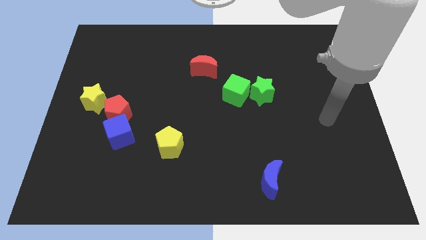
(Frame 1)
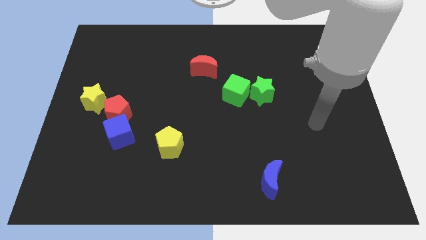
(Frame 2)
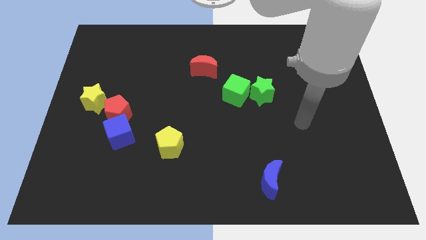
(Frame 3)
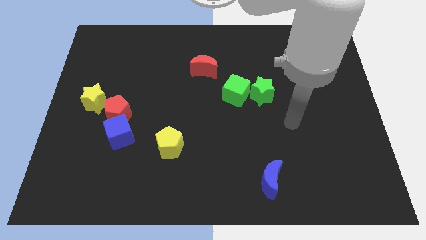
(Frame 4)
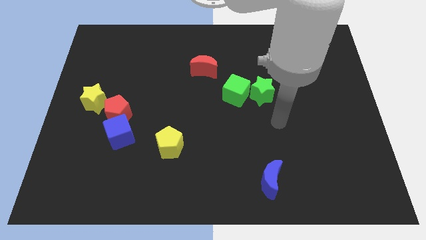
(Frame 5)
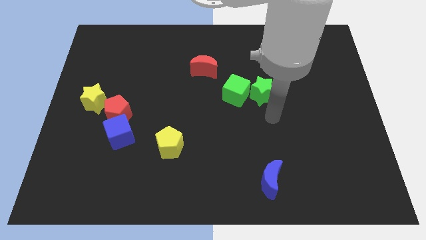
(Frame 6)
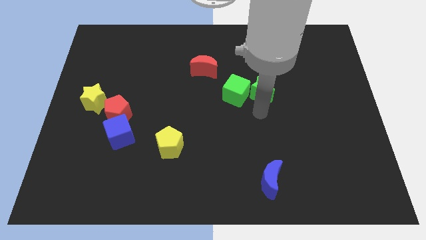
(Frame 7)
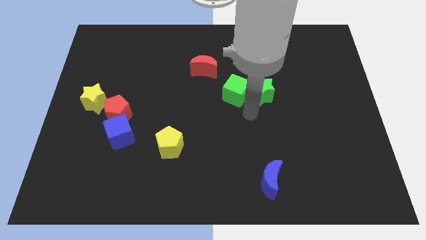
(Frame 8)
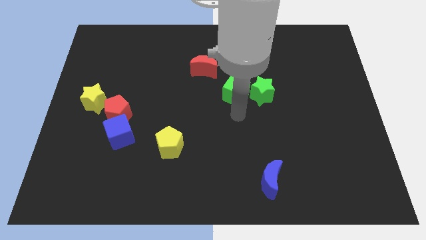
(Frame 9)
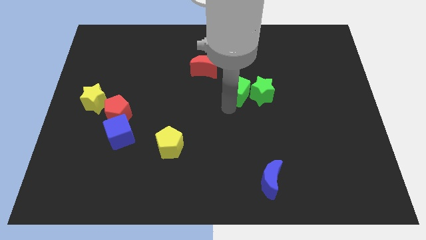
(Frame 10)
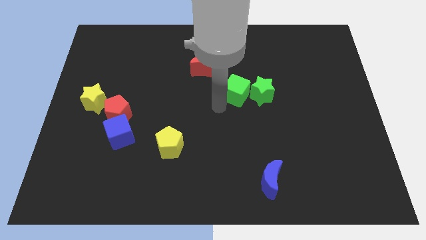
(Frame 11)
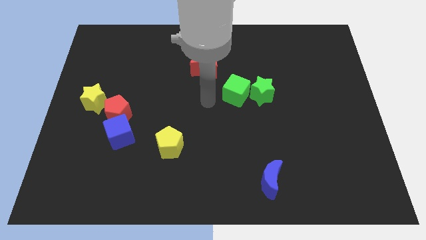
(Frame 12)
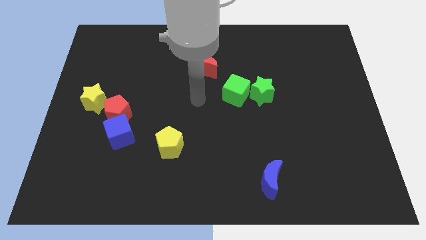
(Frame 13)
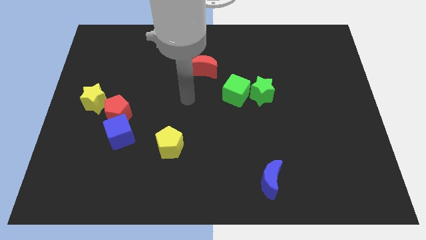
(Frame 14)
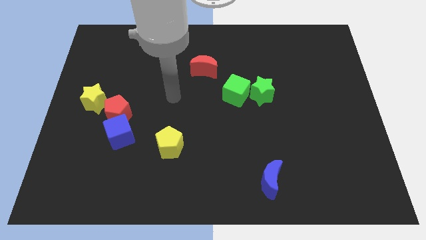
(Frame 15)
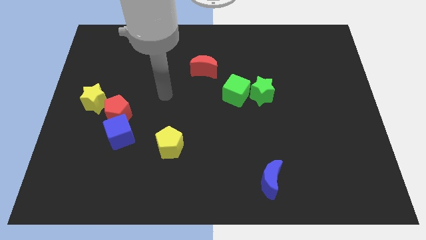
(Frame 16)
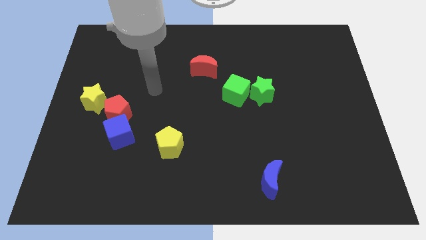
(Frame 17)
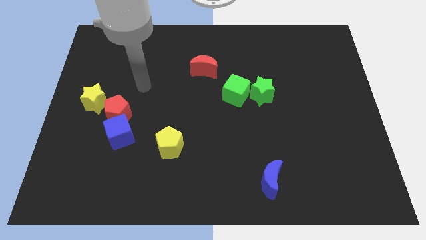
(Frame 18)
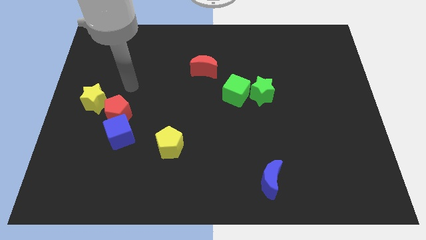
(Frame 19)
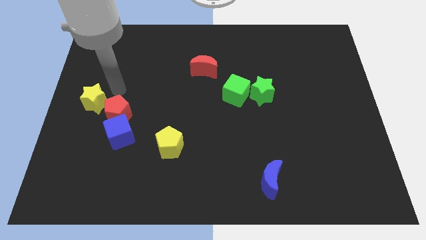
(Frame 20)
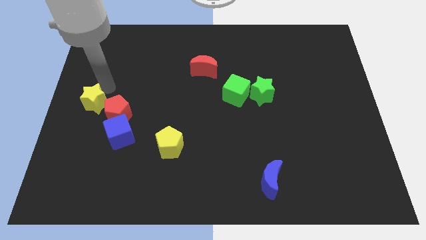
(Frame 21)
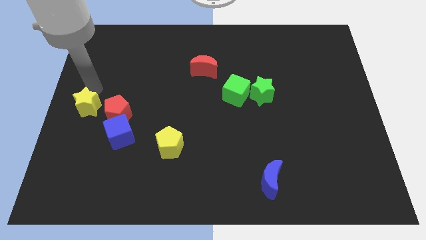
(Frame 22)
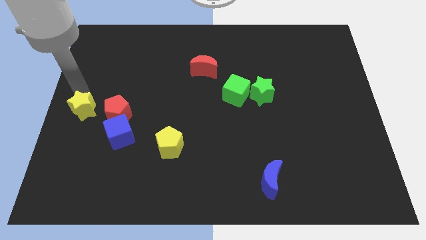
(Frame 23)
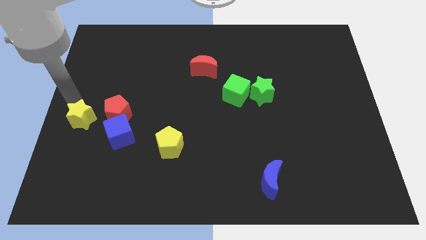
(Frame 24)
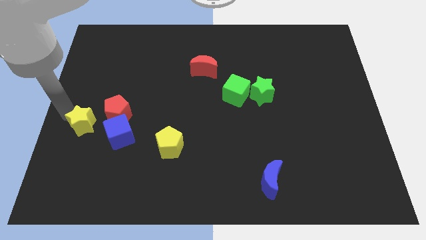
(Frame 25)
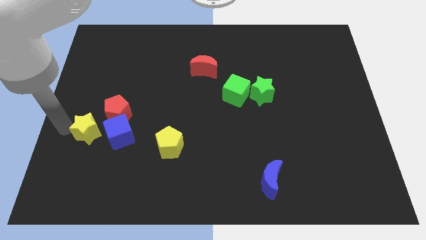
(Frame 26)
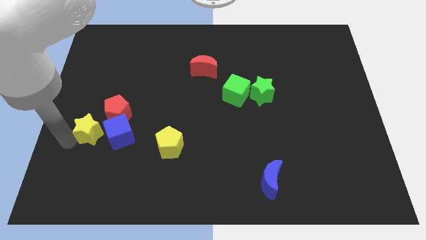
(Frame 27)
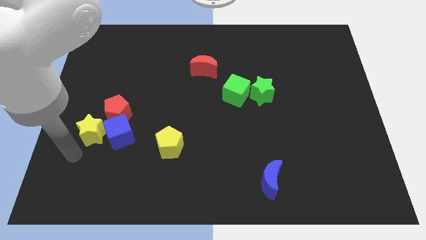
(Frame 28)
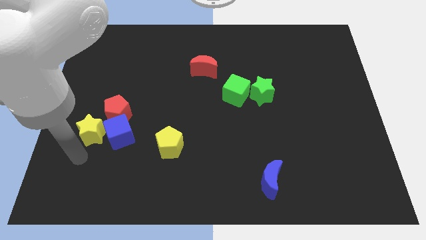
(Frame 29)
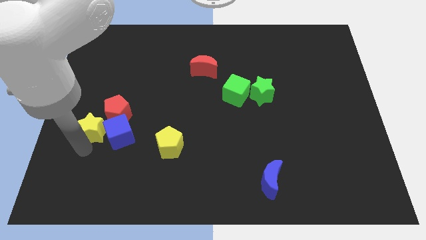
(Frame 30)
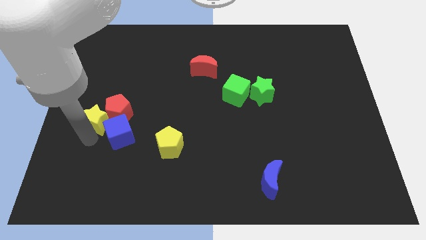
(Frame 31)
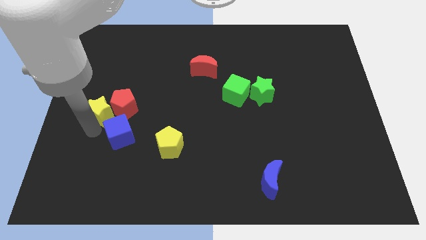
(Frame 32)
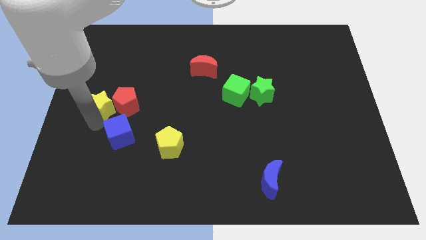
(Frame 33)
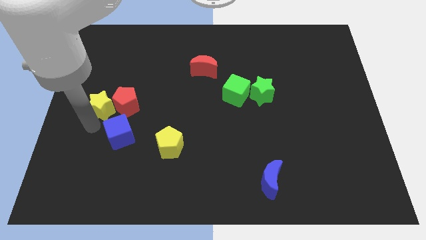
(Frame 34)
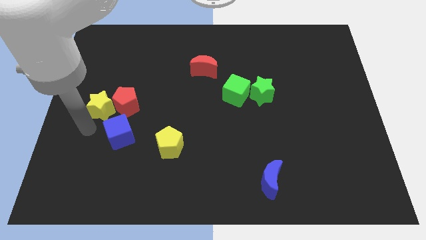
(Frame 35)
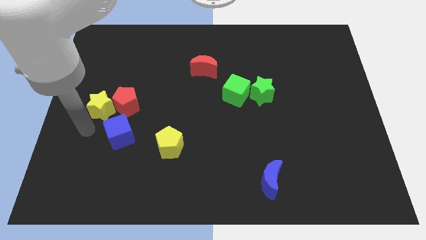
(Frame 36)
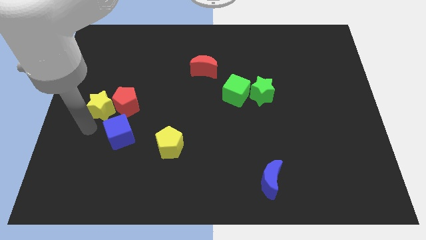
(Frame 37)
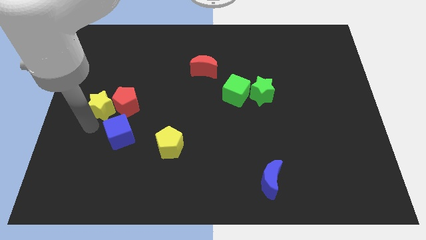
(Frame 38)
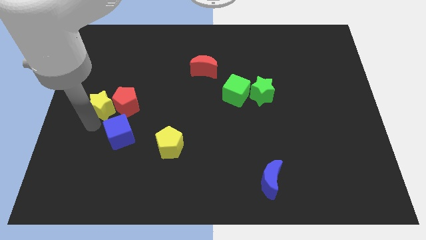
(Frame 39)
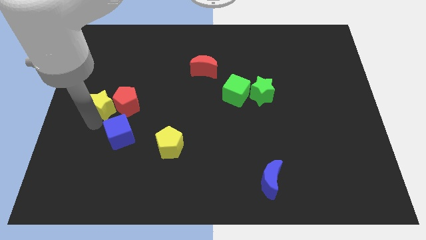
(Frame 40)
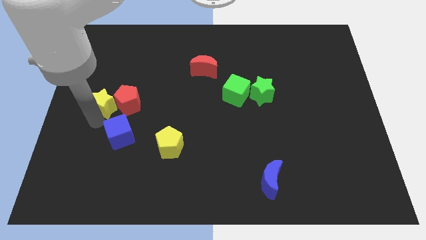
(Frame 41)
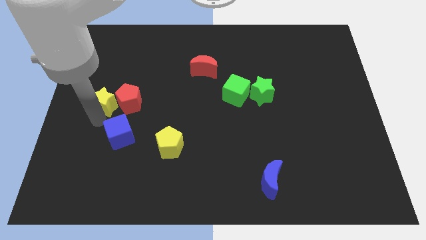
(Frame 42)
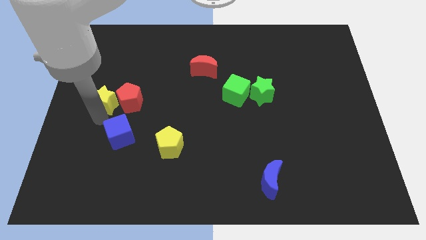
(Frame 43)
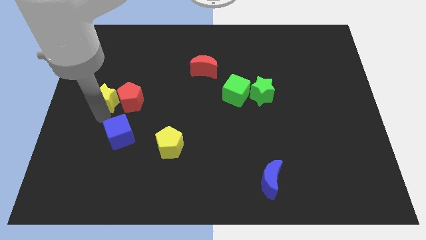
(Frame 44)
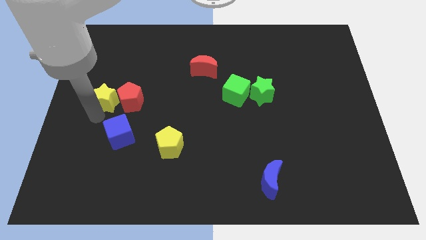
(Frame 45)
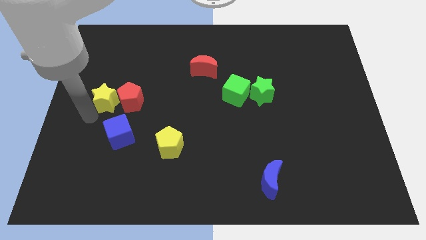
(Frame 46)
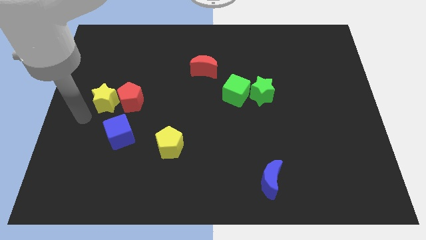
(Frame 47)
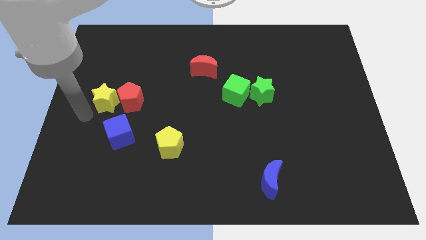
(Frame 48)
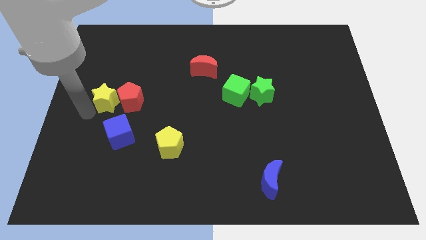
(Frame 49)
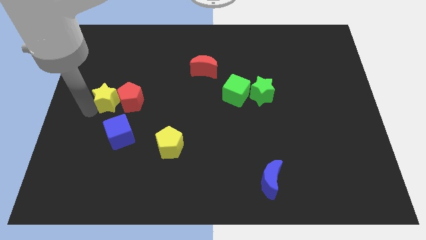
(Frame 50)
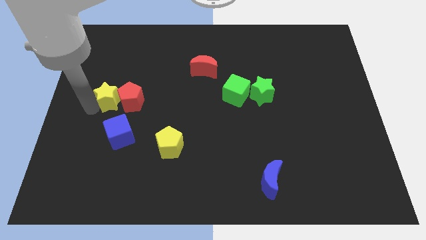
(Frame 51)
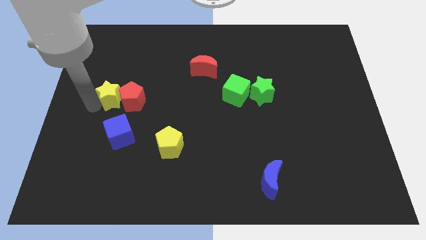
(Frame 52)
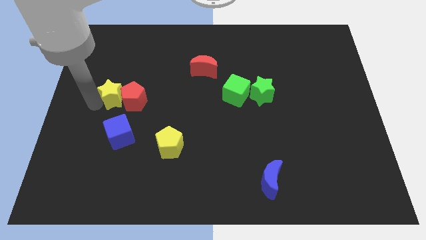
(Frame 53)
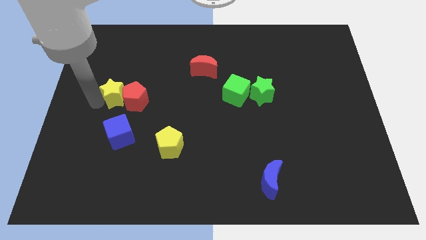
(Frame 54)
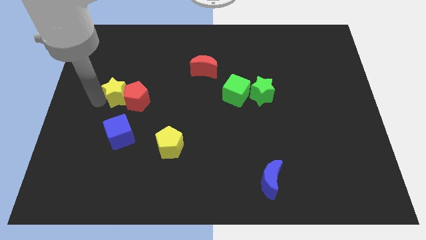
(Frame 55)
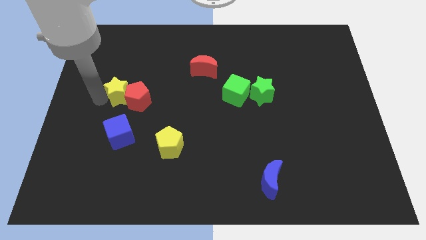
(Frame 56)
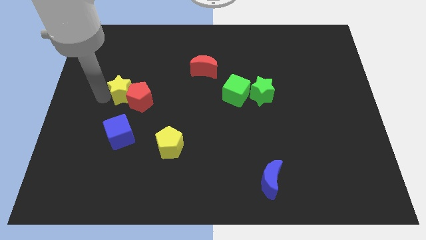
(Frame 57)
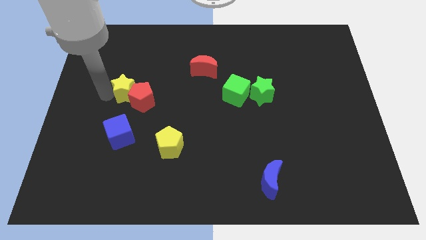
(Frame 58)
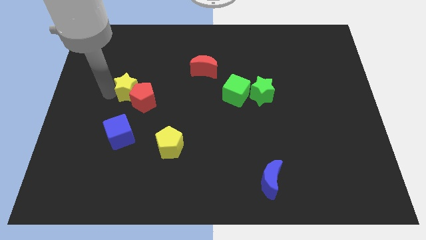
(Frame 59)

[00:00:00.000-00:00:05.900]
slightly push the yellow star upwards and then to the right

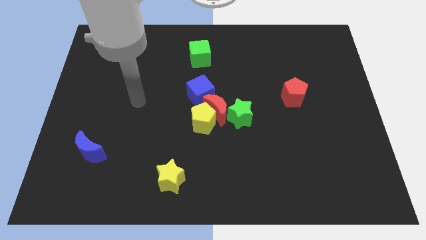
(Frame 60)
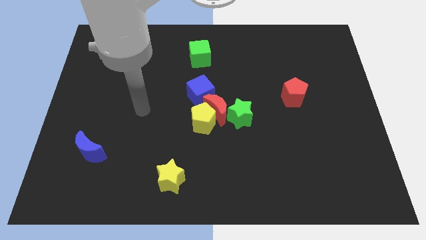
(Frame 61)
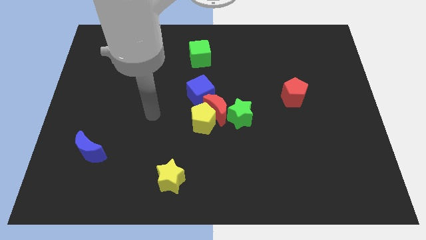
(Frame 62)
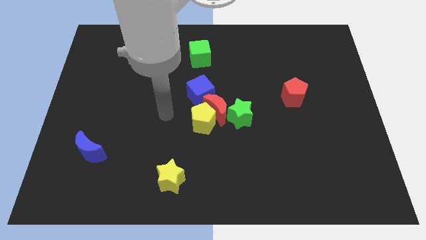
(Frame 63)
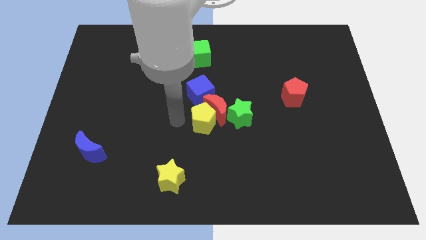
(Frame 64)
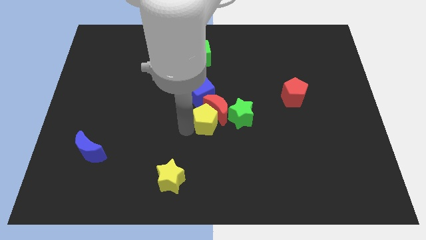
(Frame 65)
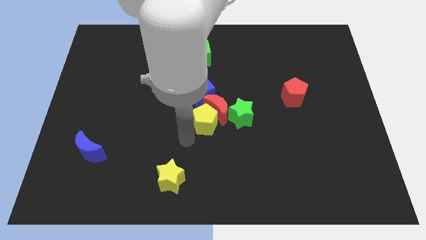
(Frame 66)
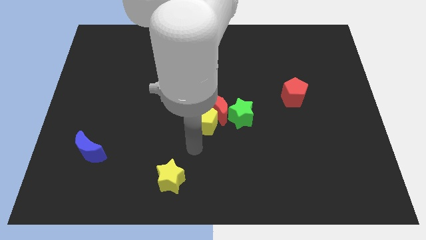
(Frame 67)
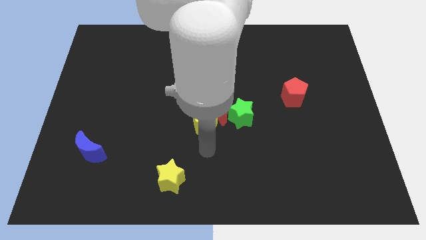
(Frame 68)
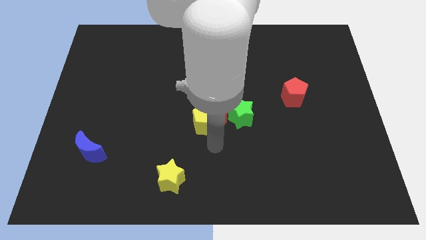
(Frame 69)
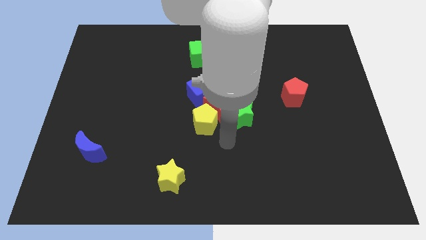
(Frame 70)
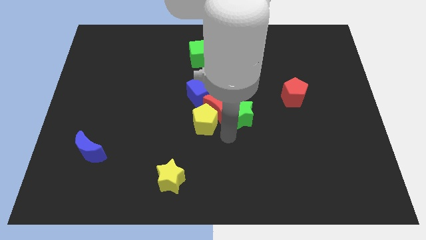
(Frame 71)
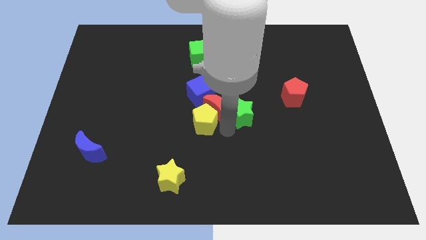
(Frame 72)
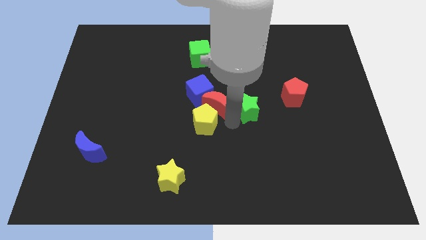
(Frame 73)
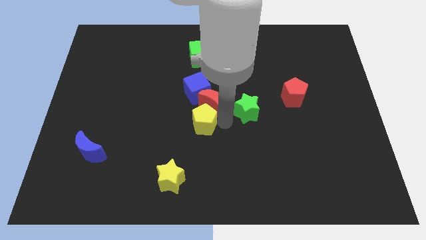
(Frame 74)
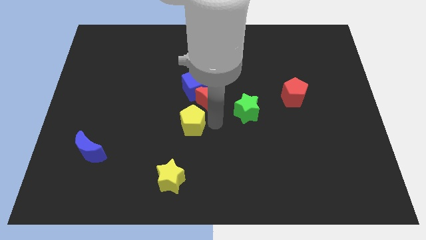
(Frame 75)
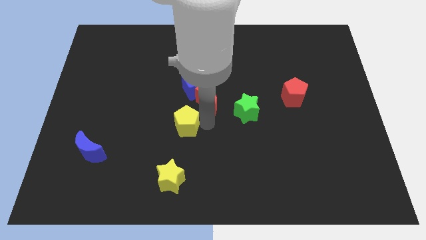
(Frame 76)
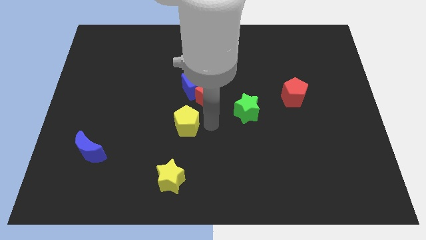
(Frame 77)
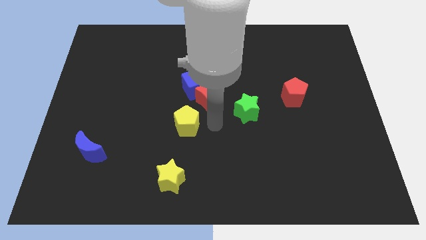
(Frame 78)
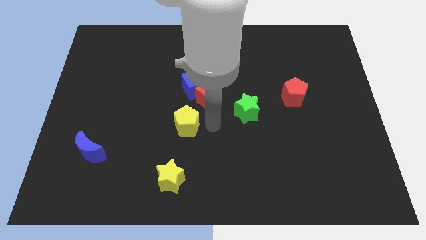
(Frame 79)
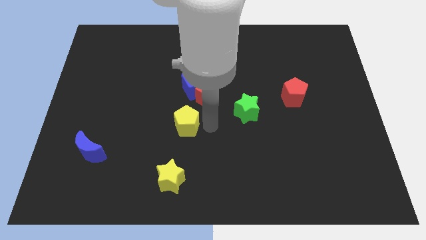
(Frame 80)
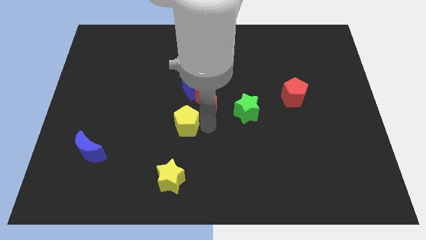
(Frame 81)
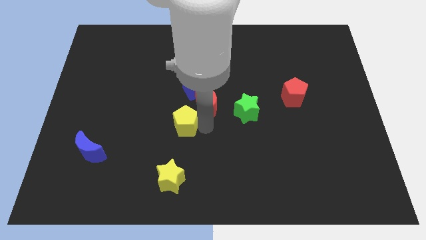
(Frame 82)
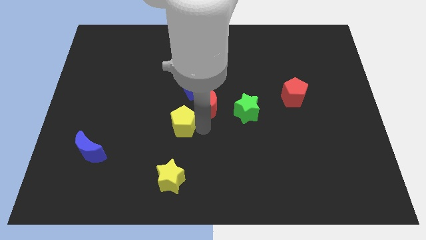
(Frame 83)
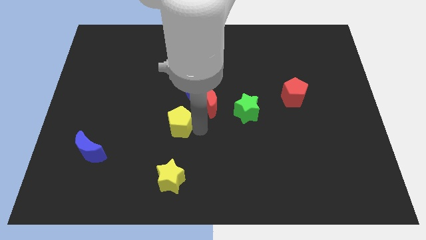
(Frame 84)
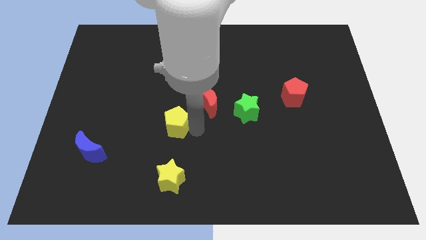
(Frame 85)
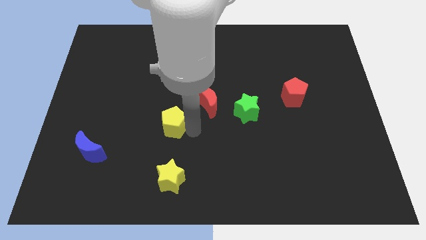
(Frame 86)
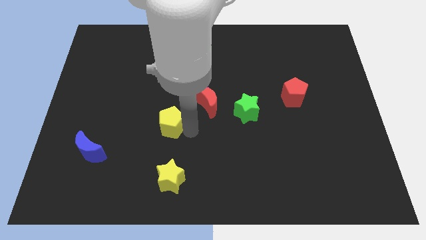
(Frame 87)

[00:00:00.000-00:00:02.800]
move the yellow pentagon a little bit to the left
